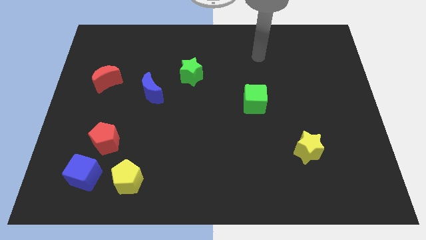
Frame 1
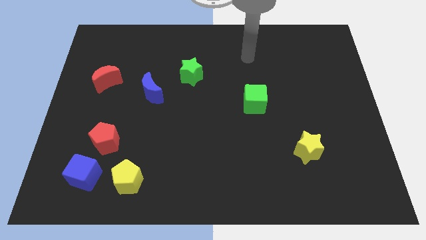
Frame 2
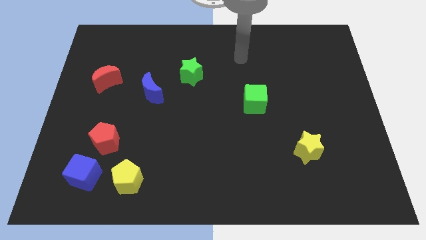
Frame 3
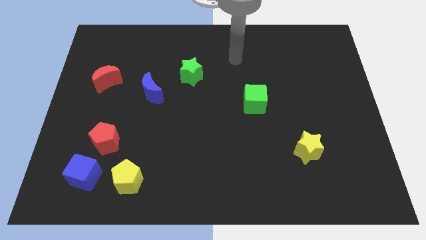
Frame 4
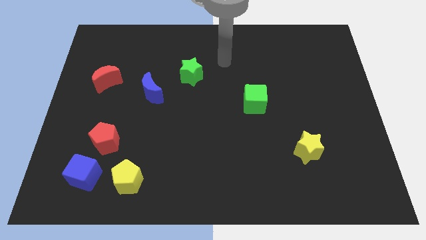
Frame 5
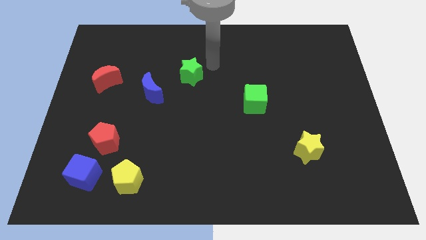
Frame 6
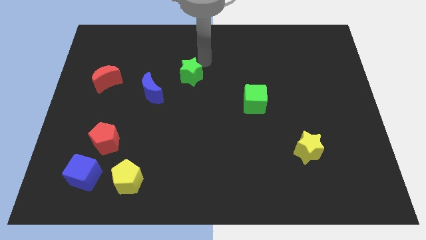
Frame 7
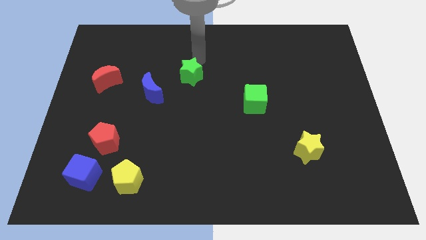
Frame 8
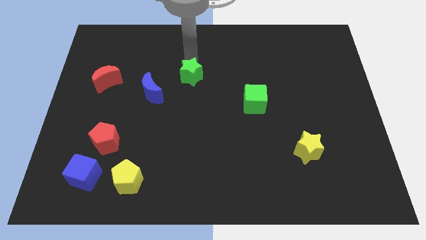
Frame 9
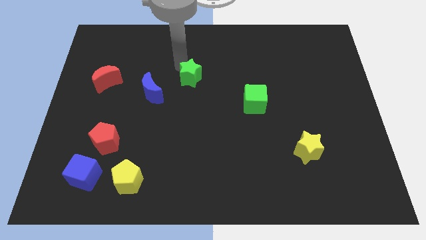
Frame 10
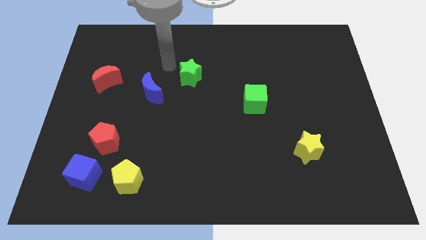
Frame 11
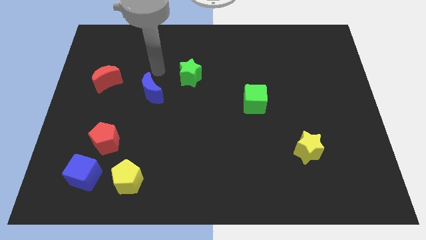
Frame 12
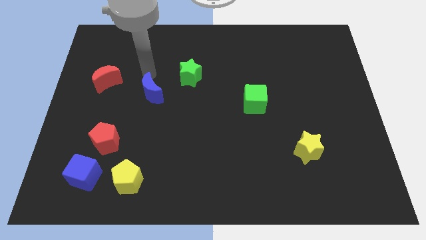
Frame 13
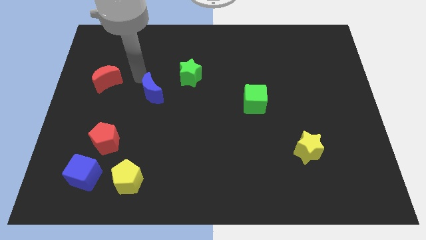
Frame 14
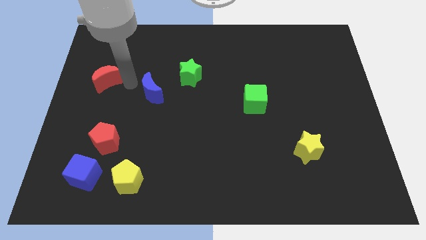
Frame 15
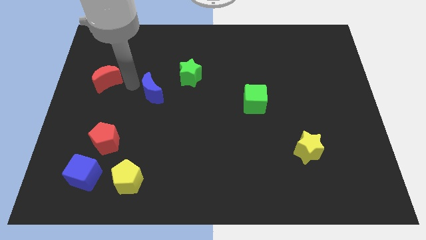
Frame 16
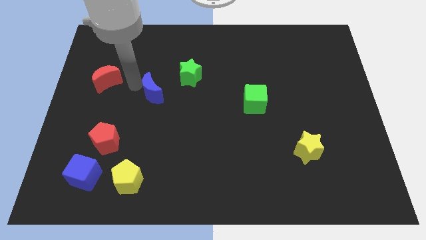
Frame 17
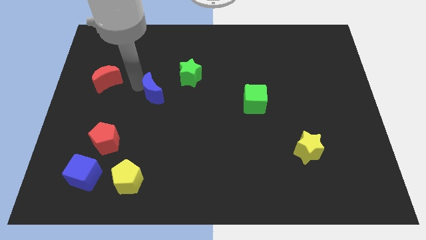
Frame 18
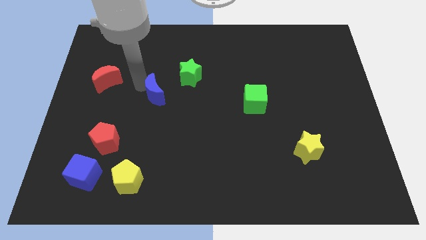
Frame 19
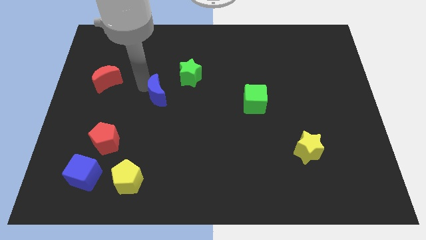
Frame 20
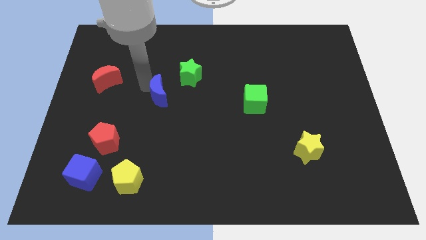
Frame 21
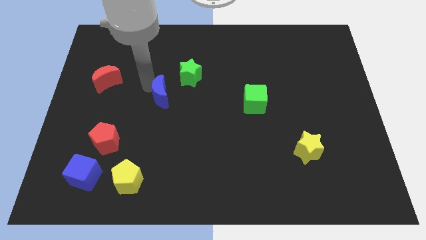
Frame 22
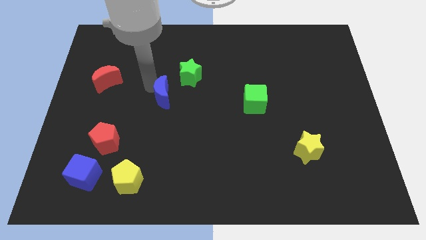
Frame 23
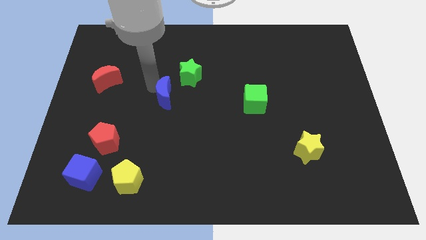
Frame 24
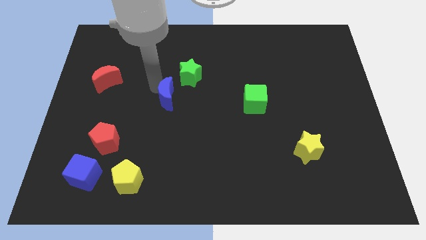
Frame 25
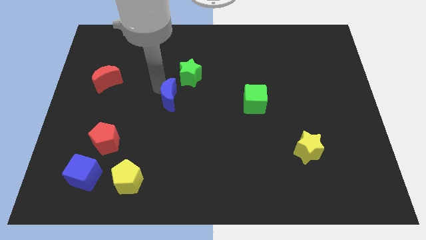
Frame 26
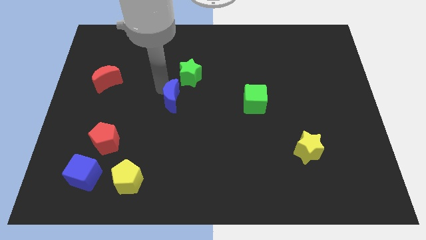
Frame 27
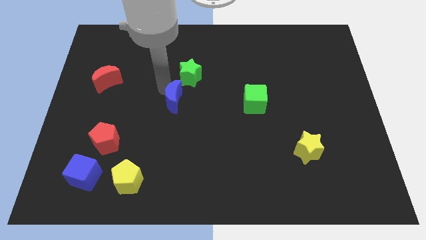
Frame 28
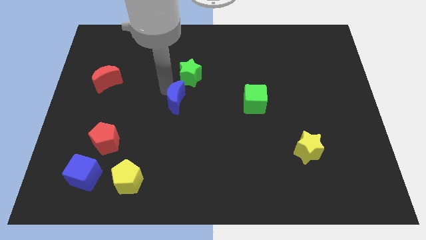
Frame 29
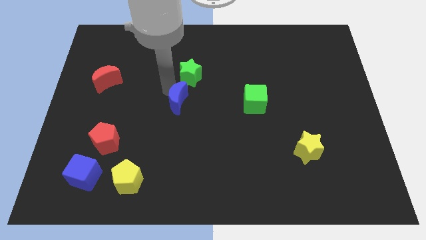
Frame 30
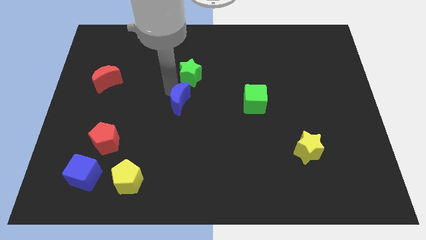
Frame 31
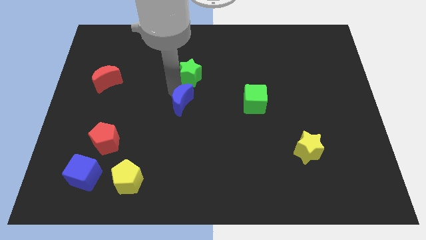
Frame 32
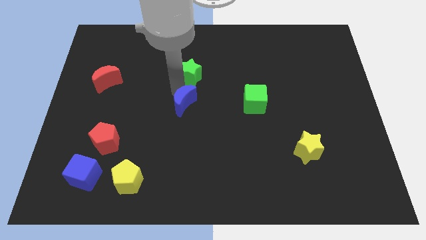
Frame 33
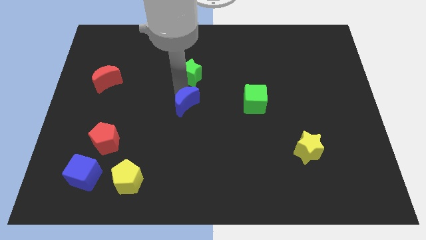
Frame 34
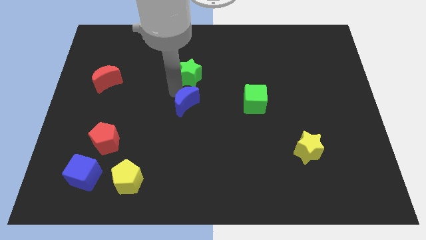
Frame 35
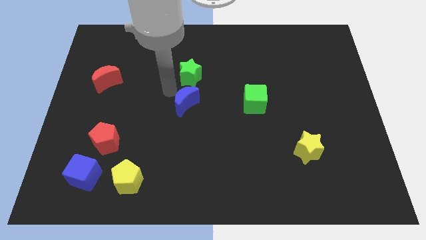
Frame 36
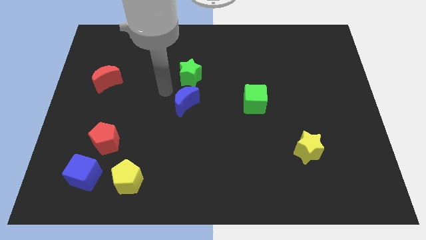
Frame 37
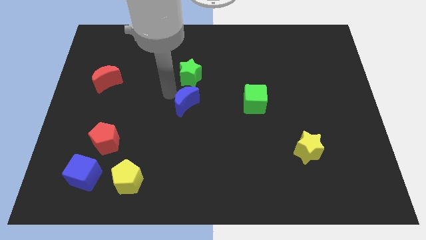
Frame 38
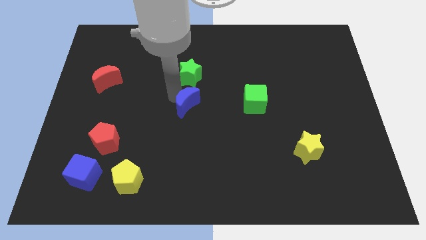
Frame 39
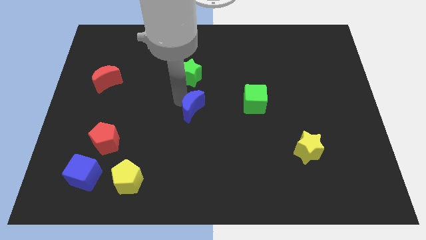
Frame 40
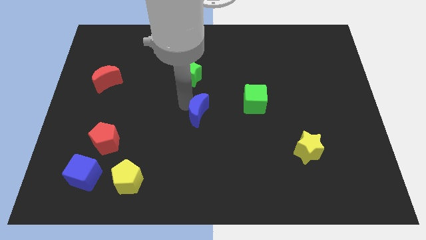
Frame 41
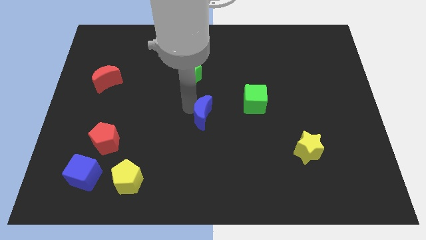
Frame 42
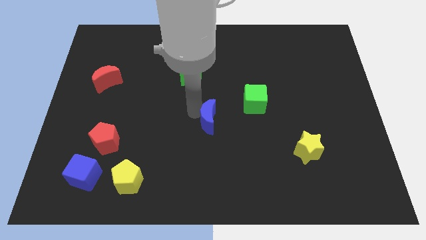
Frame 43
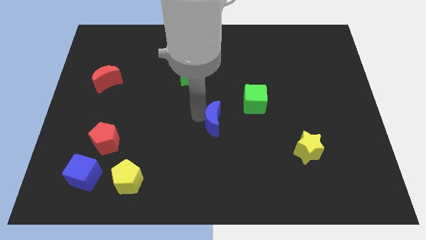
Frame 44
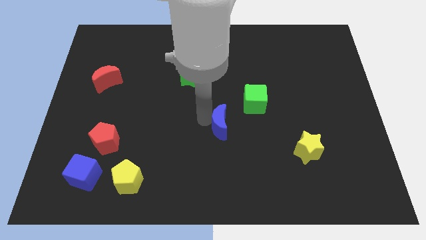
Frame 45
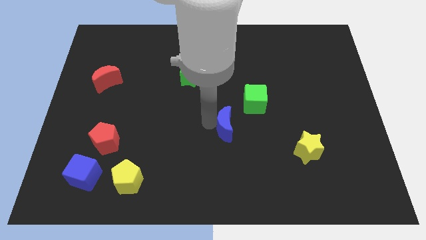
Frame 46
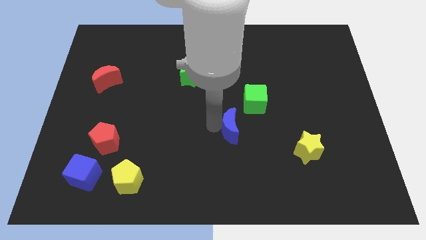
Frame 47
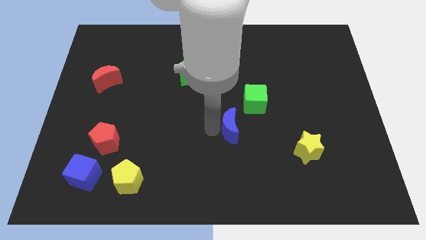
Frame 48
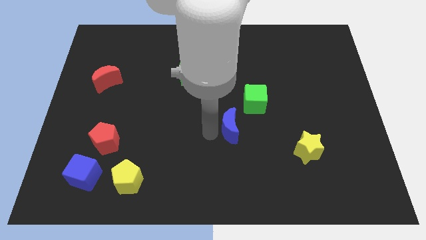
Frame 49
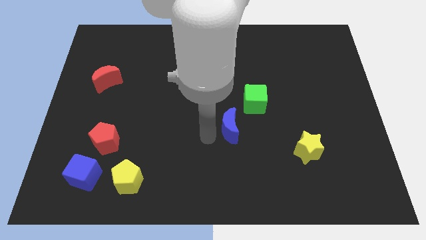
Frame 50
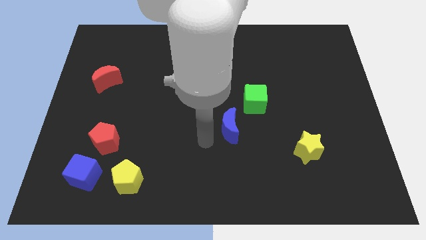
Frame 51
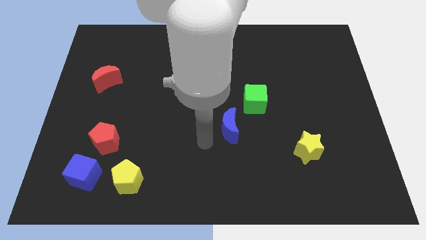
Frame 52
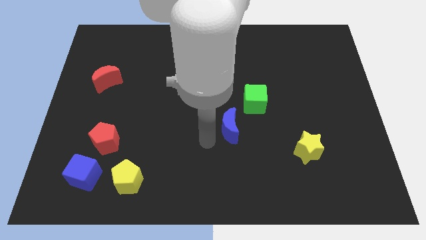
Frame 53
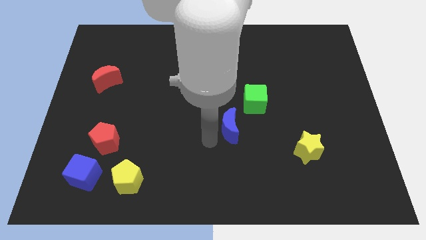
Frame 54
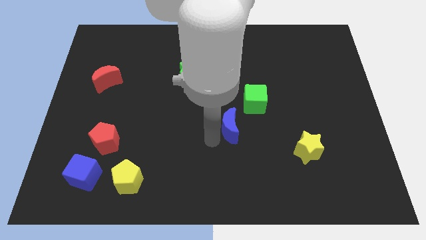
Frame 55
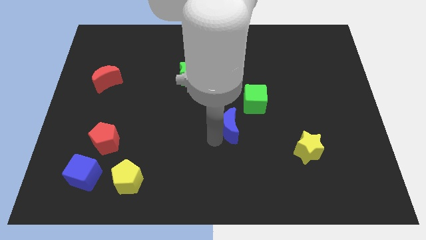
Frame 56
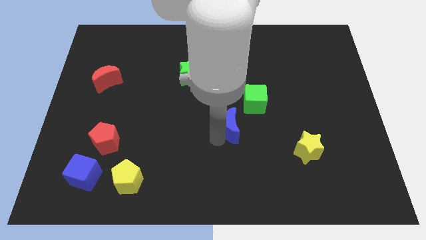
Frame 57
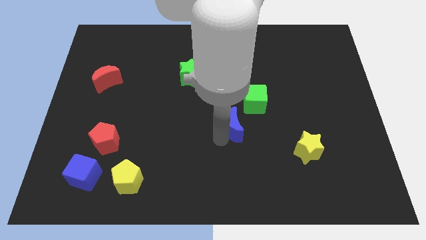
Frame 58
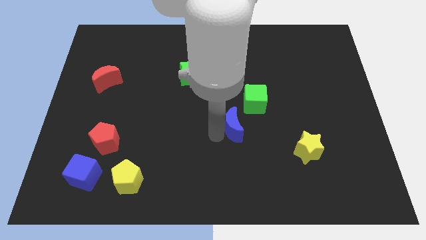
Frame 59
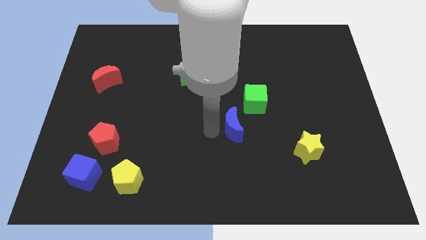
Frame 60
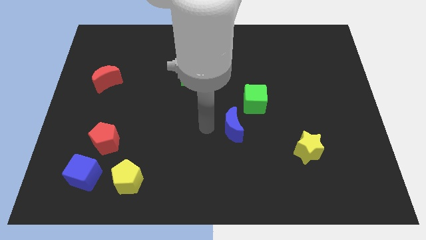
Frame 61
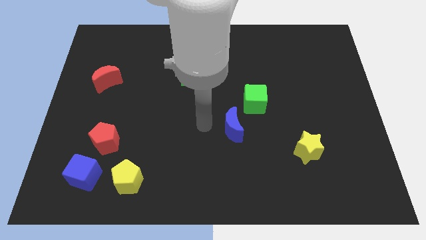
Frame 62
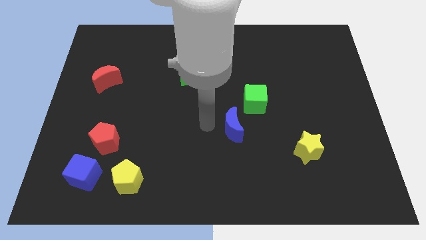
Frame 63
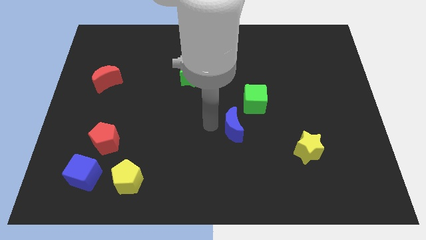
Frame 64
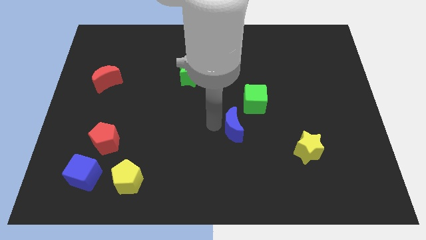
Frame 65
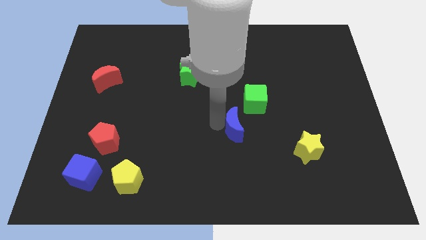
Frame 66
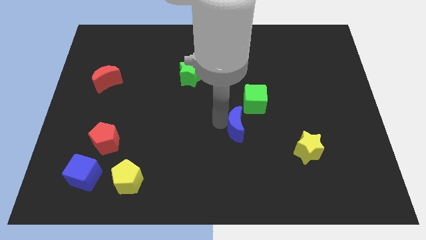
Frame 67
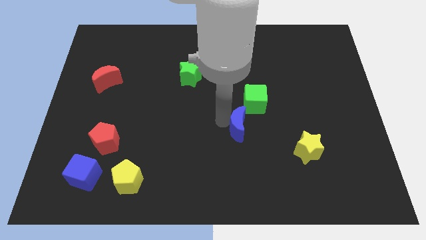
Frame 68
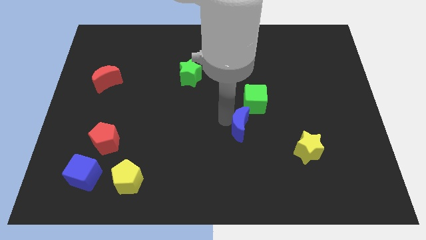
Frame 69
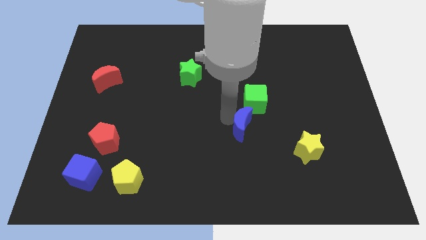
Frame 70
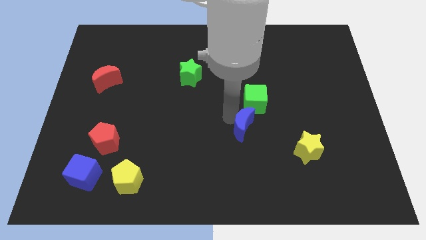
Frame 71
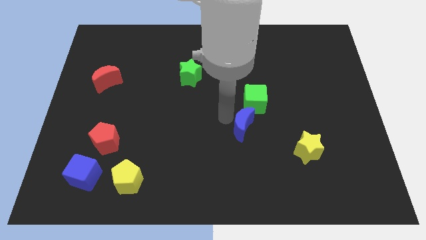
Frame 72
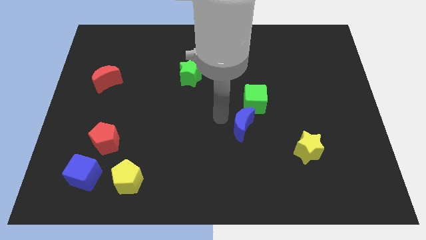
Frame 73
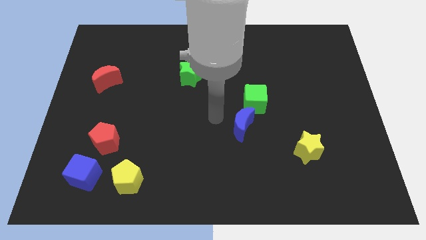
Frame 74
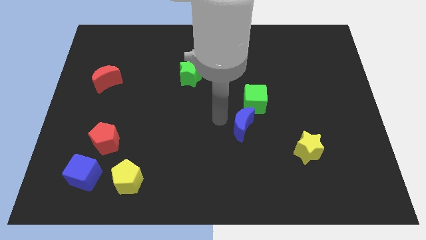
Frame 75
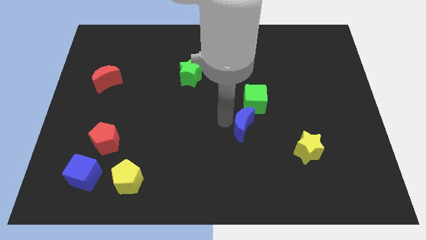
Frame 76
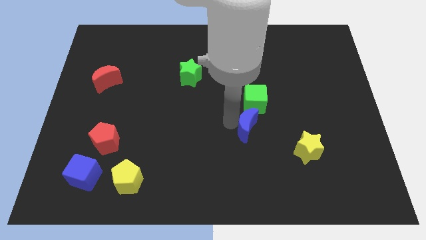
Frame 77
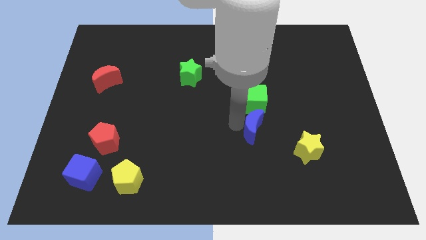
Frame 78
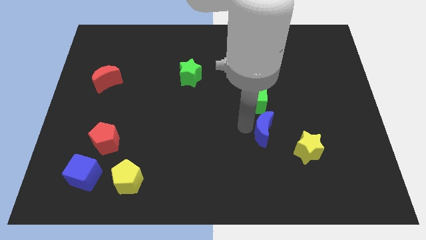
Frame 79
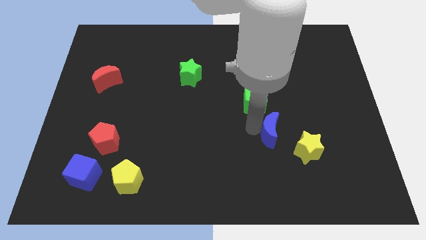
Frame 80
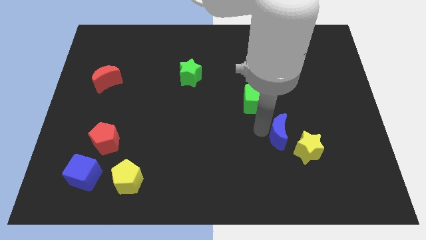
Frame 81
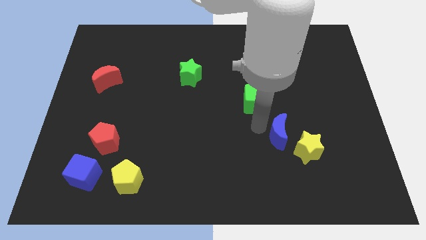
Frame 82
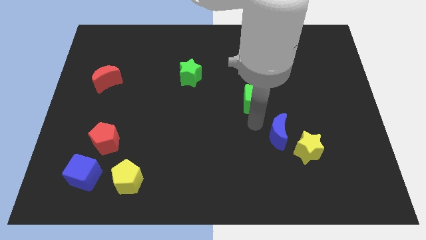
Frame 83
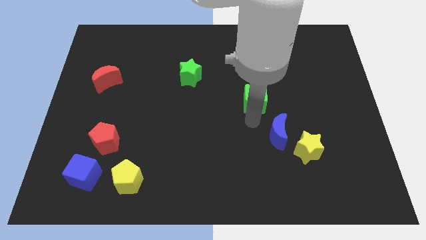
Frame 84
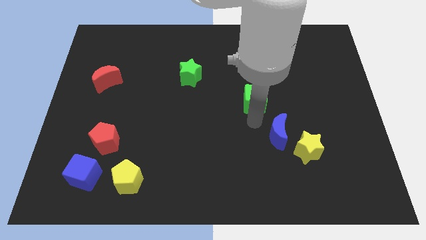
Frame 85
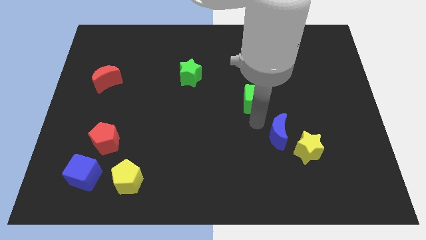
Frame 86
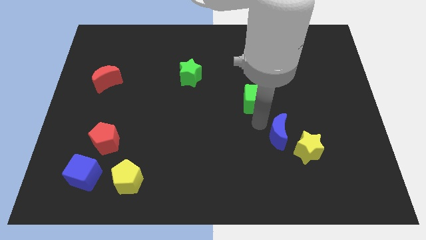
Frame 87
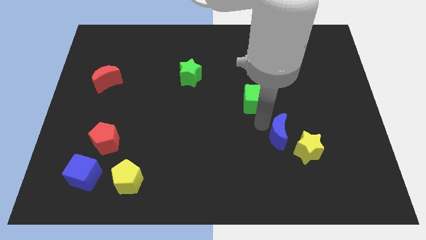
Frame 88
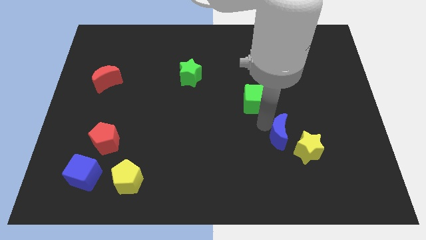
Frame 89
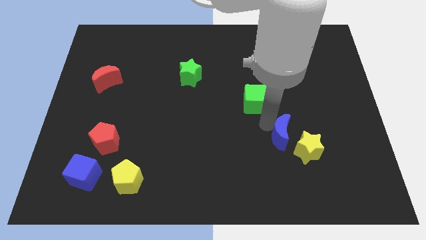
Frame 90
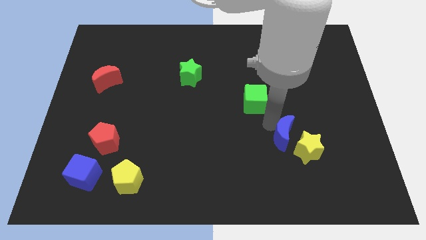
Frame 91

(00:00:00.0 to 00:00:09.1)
slide the blue moon towards the yellow star
